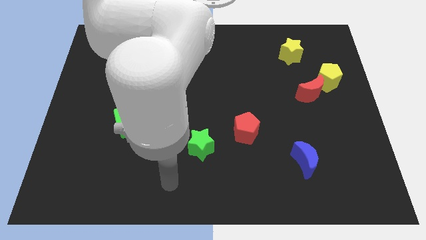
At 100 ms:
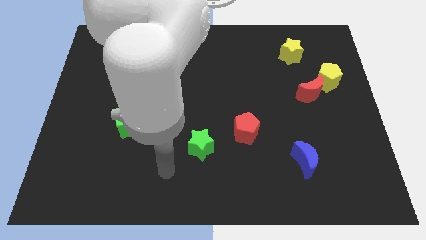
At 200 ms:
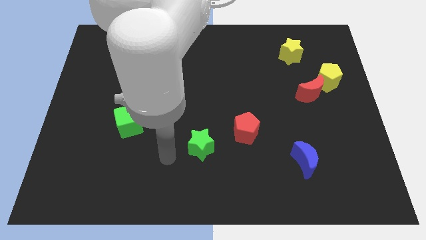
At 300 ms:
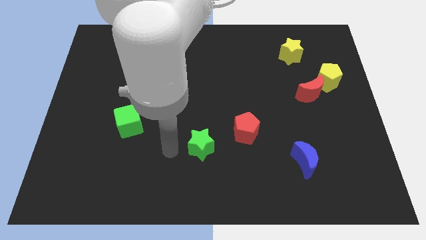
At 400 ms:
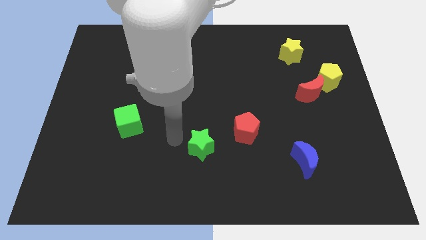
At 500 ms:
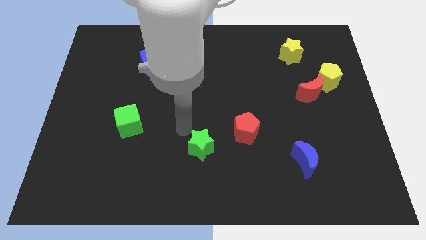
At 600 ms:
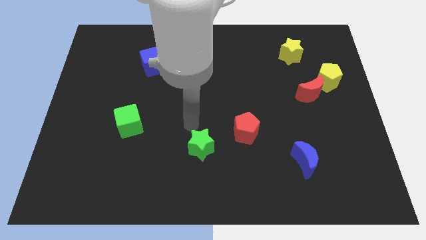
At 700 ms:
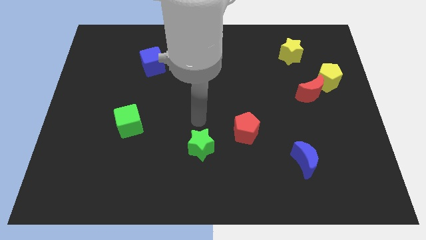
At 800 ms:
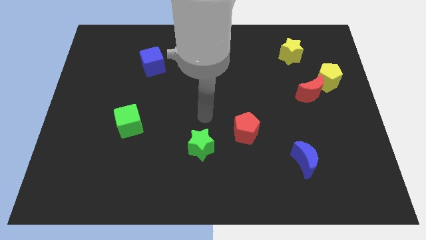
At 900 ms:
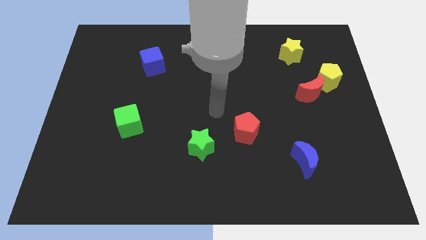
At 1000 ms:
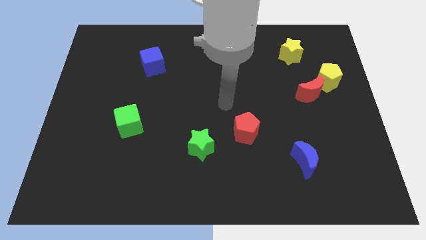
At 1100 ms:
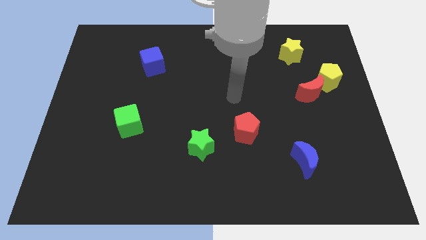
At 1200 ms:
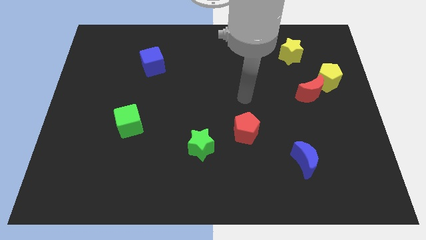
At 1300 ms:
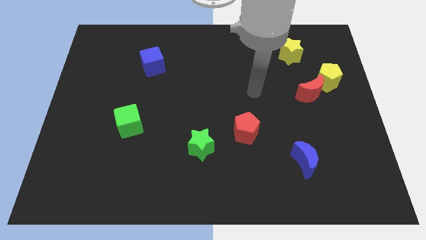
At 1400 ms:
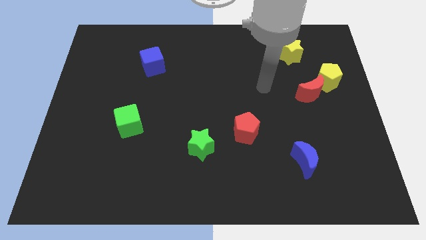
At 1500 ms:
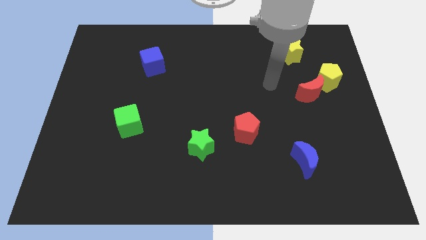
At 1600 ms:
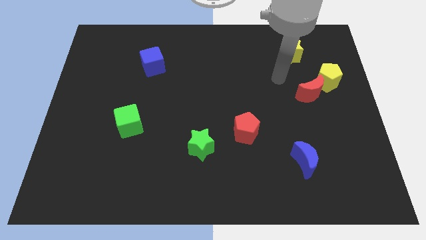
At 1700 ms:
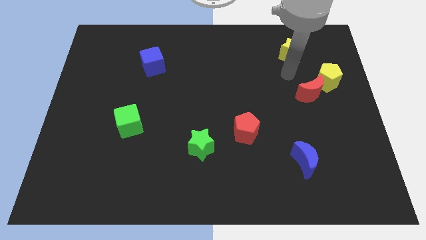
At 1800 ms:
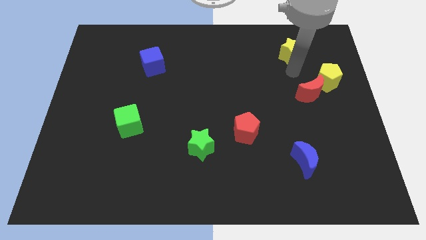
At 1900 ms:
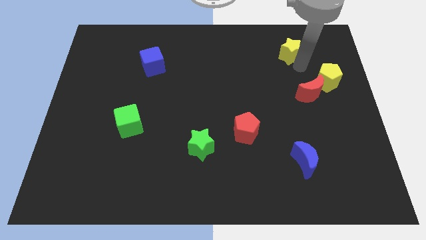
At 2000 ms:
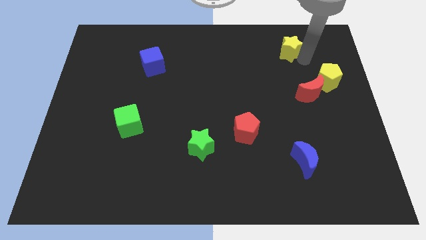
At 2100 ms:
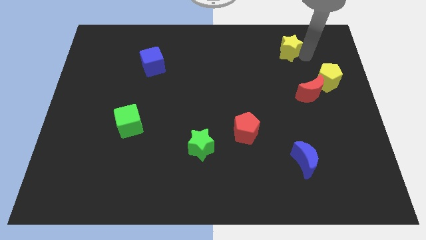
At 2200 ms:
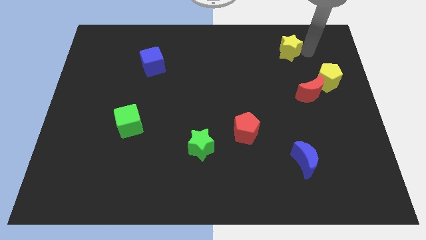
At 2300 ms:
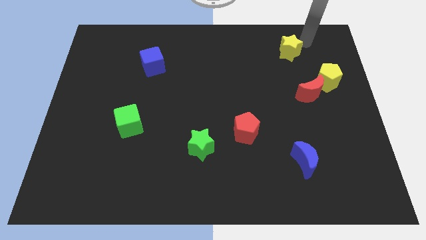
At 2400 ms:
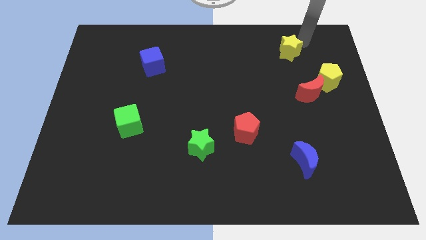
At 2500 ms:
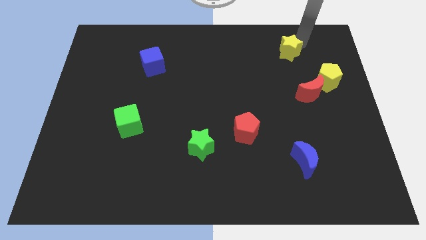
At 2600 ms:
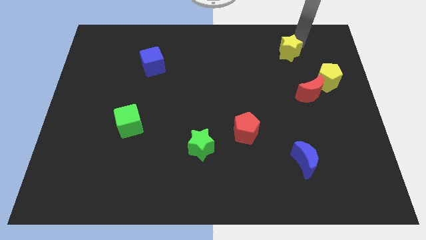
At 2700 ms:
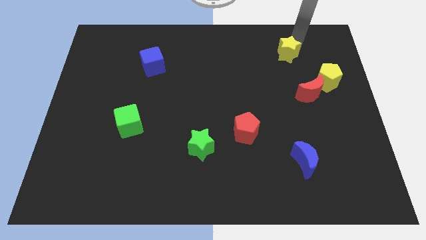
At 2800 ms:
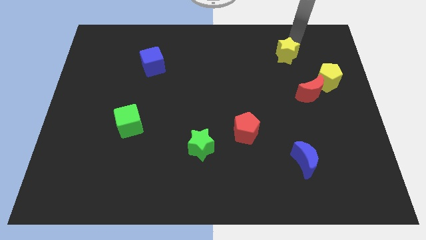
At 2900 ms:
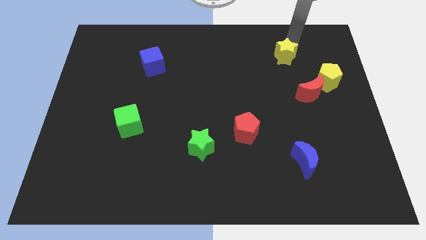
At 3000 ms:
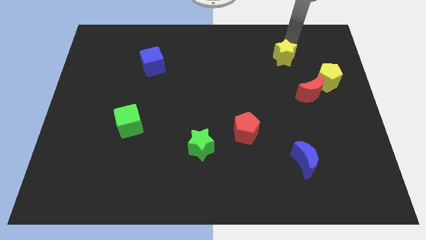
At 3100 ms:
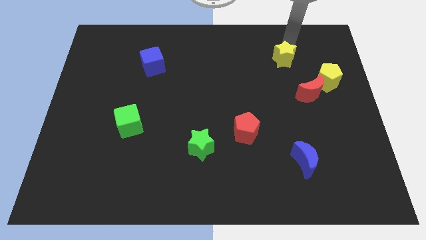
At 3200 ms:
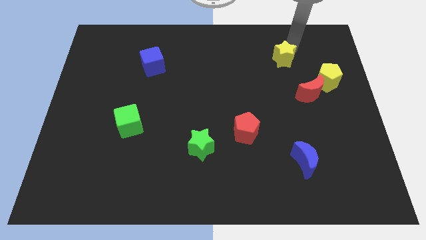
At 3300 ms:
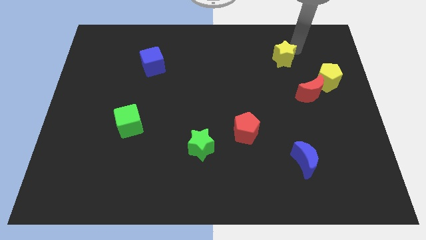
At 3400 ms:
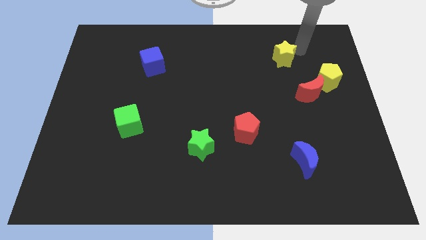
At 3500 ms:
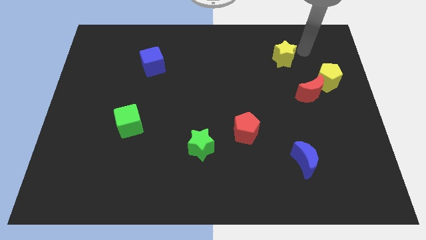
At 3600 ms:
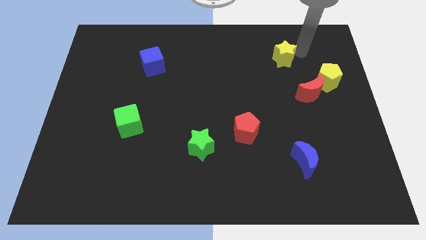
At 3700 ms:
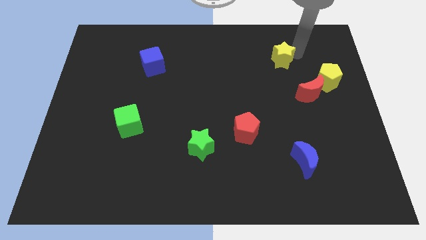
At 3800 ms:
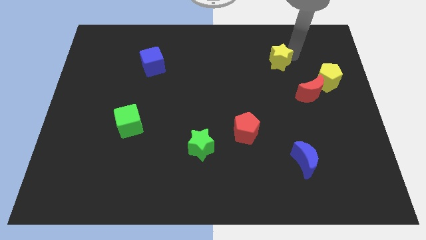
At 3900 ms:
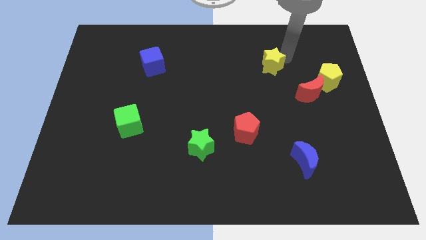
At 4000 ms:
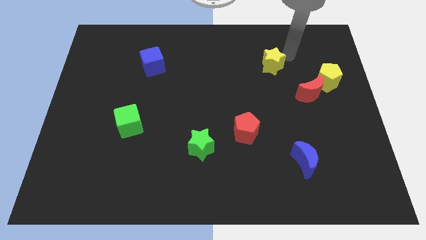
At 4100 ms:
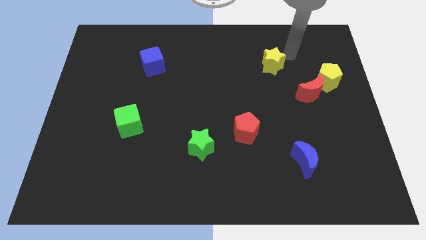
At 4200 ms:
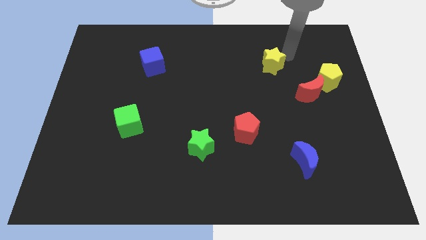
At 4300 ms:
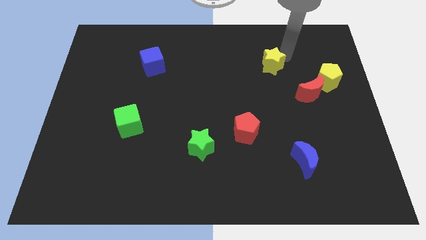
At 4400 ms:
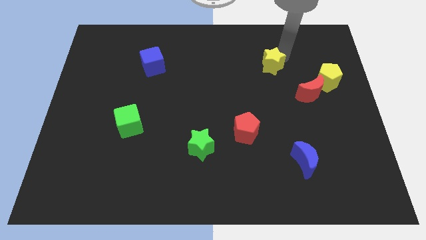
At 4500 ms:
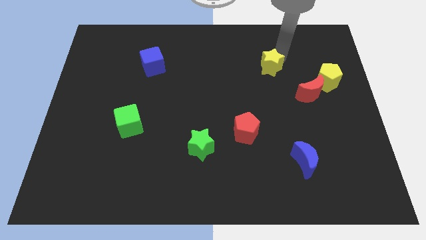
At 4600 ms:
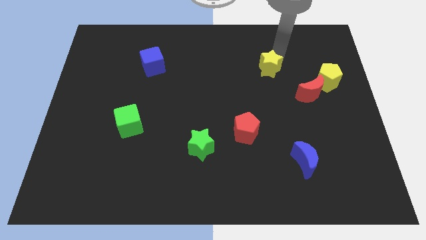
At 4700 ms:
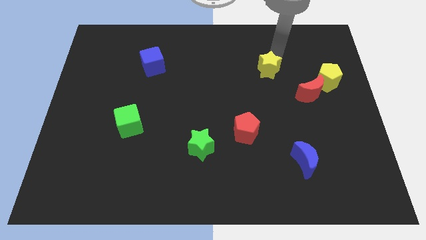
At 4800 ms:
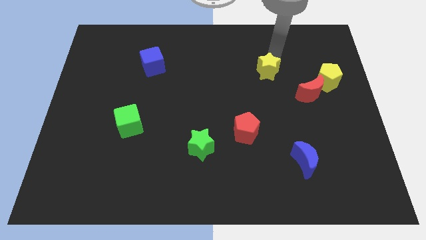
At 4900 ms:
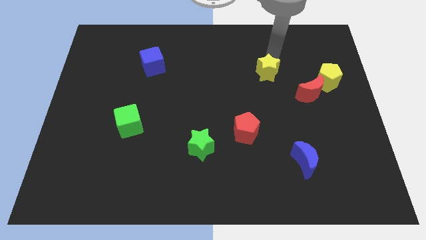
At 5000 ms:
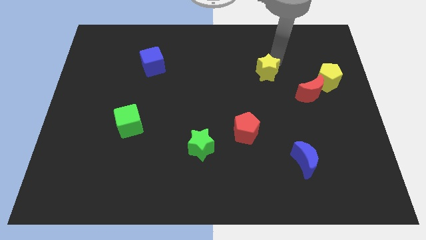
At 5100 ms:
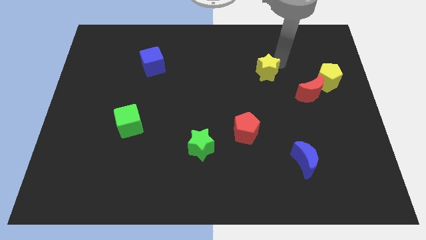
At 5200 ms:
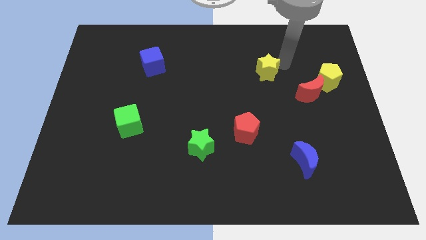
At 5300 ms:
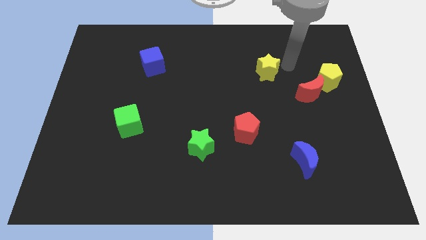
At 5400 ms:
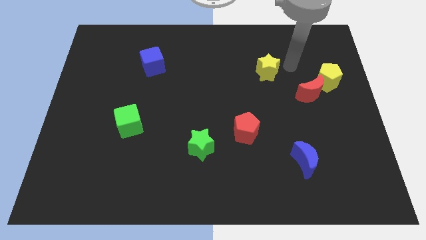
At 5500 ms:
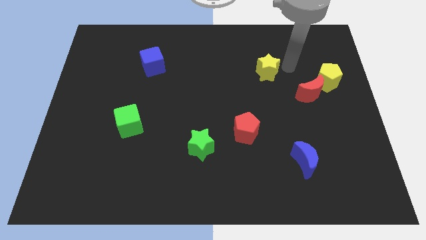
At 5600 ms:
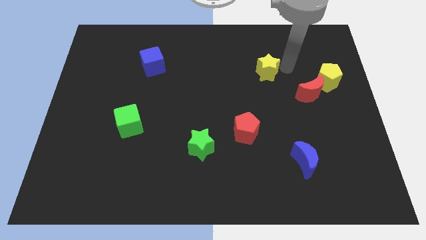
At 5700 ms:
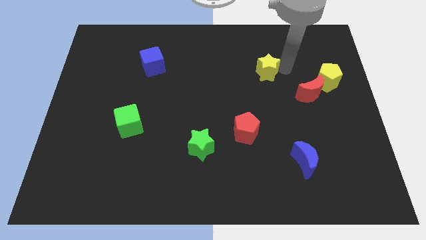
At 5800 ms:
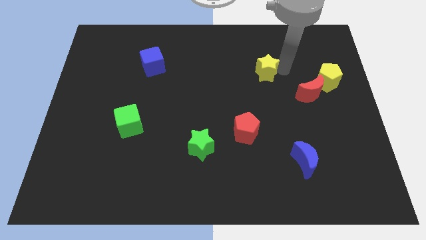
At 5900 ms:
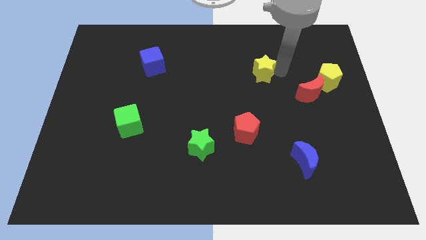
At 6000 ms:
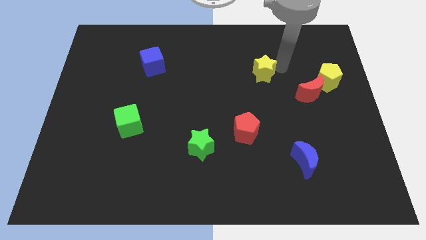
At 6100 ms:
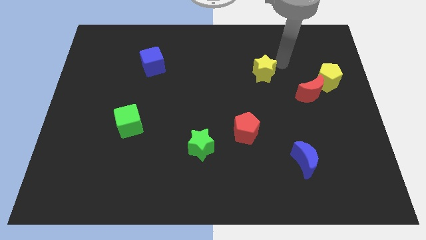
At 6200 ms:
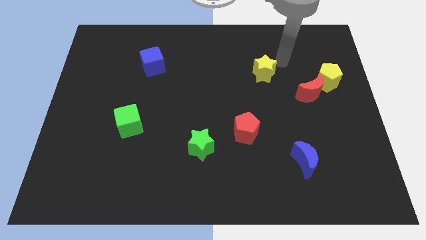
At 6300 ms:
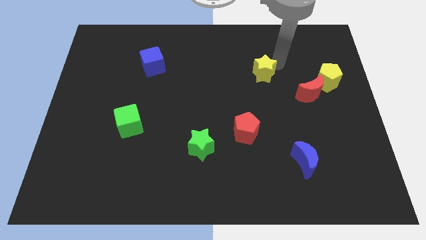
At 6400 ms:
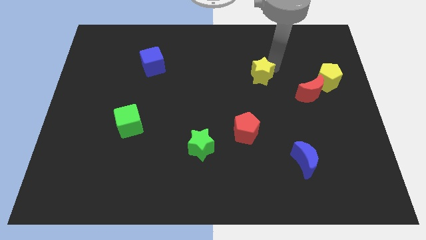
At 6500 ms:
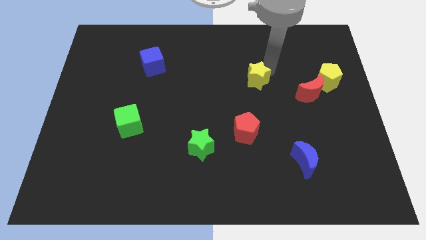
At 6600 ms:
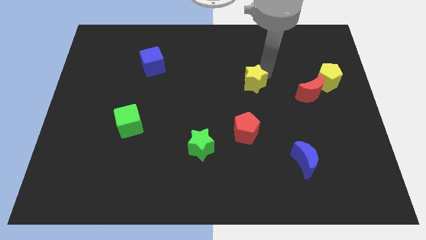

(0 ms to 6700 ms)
push the yellow star to the middle

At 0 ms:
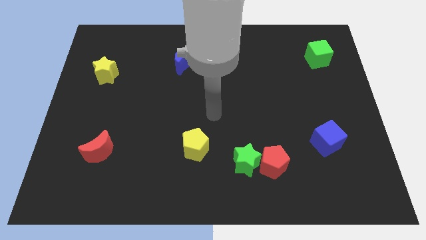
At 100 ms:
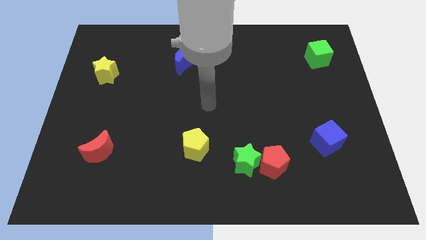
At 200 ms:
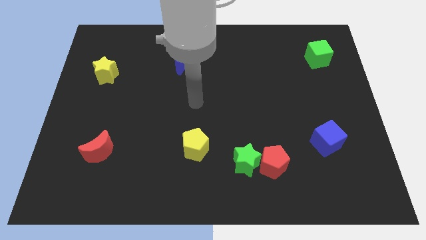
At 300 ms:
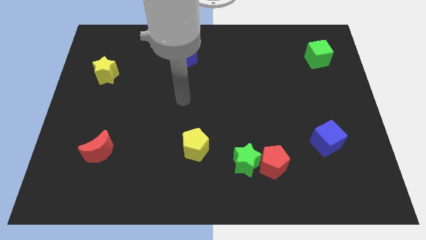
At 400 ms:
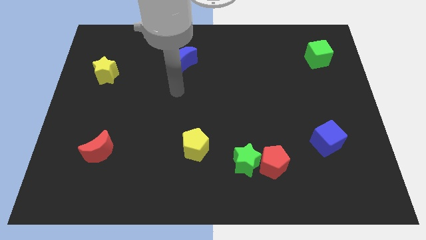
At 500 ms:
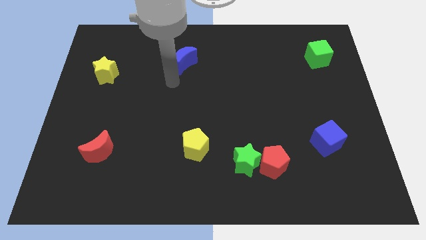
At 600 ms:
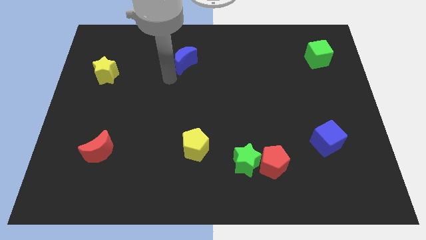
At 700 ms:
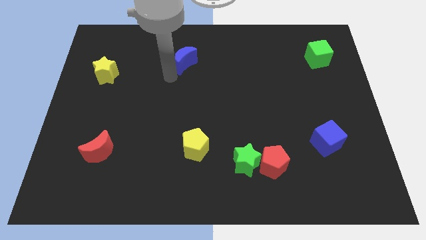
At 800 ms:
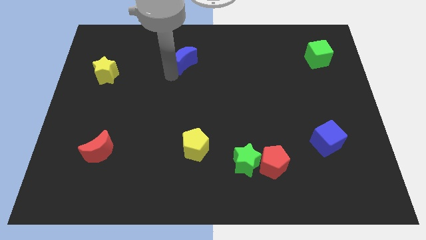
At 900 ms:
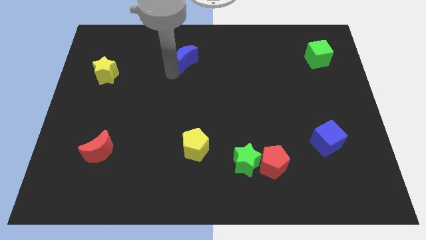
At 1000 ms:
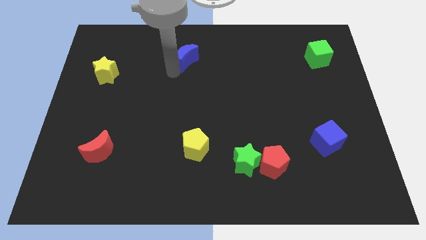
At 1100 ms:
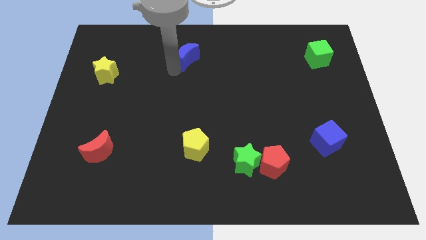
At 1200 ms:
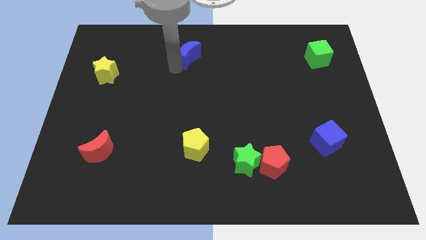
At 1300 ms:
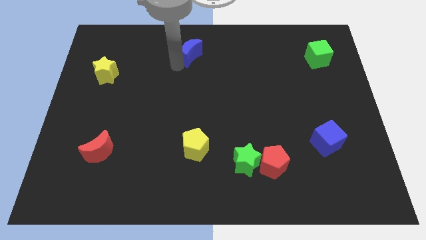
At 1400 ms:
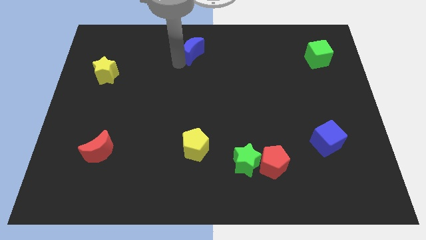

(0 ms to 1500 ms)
put the blue moon to the towards your base
